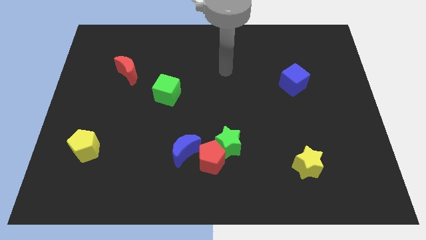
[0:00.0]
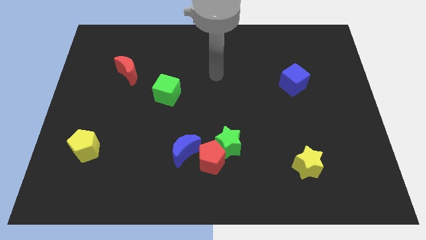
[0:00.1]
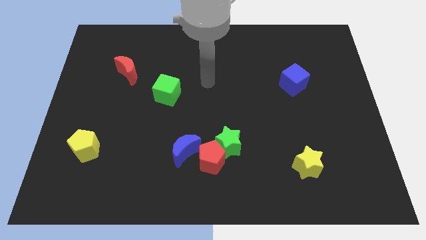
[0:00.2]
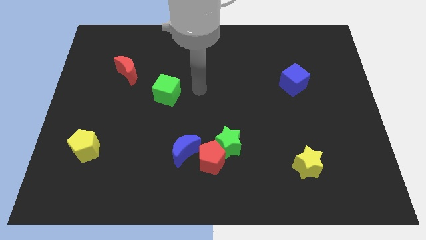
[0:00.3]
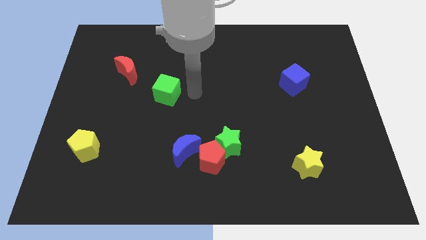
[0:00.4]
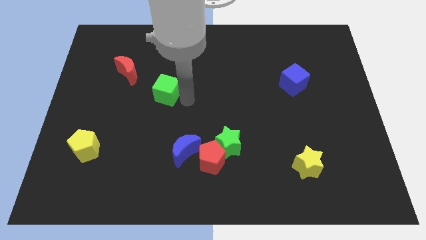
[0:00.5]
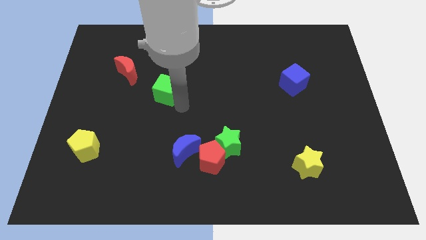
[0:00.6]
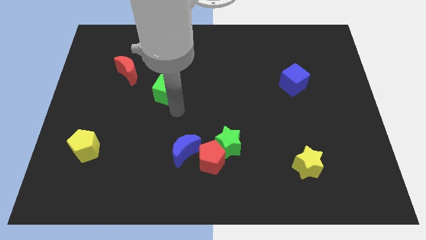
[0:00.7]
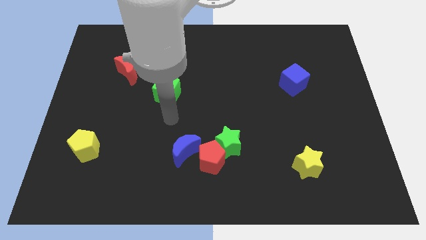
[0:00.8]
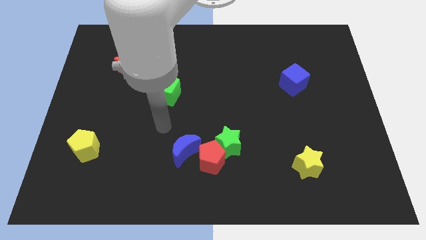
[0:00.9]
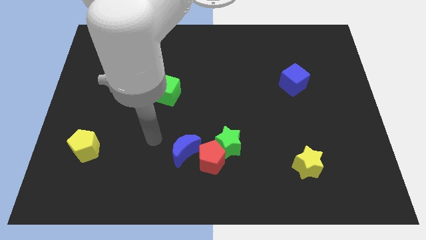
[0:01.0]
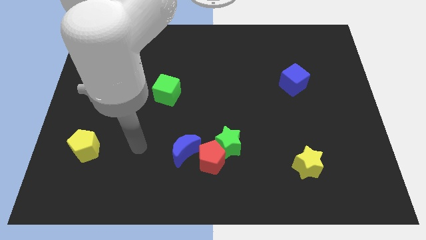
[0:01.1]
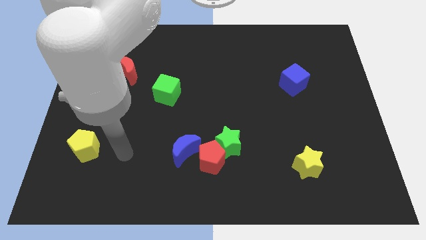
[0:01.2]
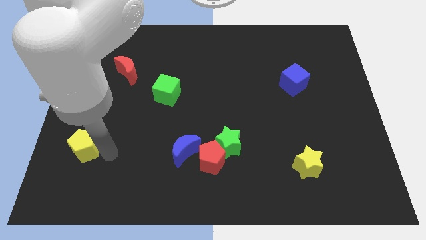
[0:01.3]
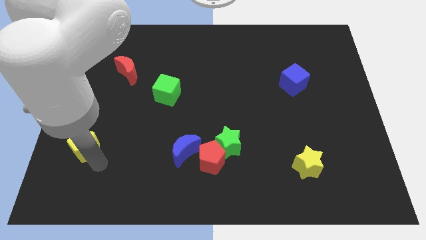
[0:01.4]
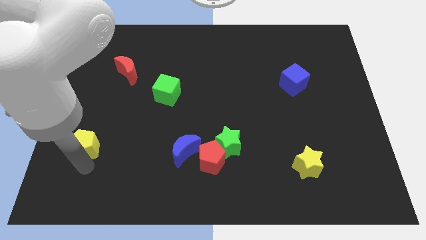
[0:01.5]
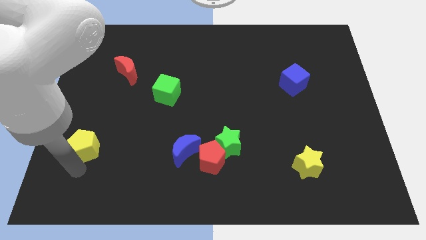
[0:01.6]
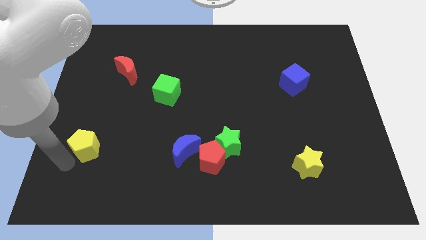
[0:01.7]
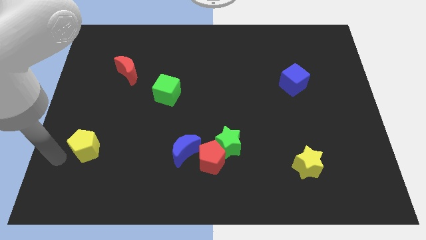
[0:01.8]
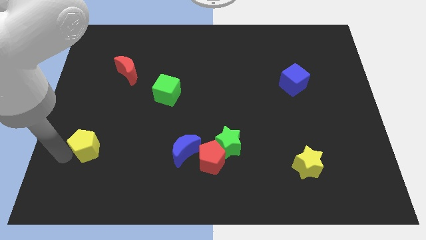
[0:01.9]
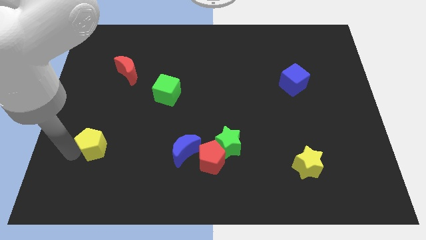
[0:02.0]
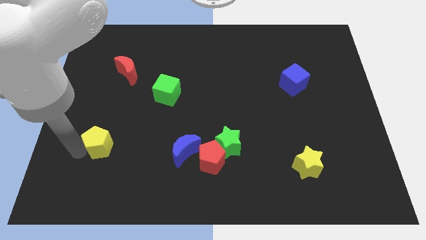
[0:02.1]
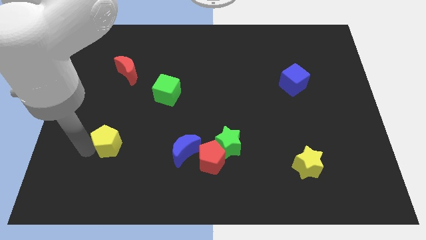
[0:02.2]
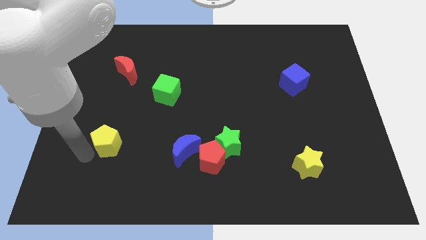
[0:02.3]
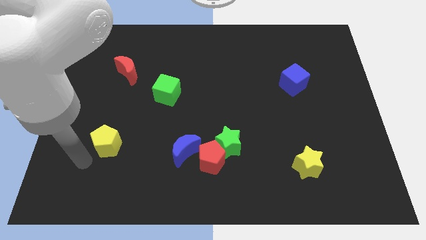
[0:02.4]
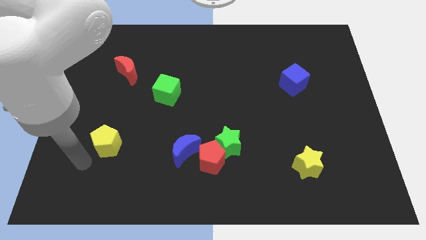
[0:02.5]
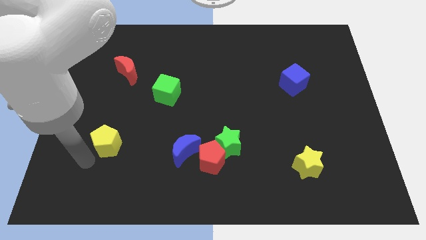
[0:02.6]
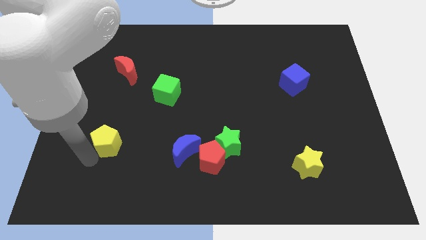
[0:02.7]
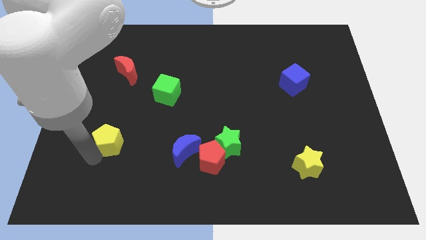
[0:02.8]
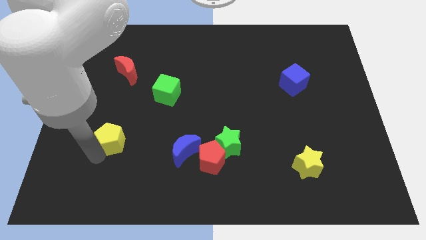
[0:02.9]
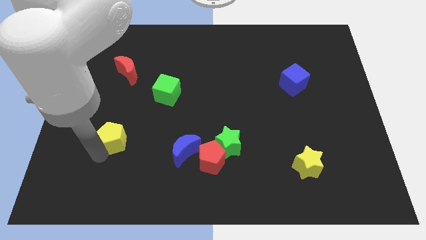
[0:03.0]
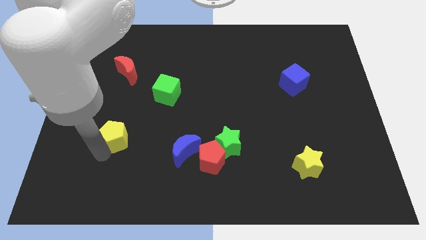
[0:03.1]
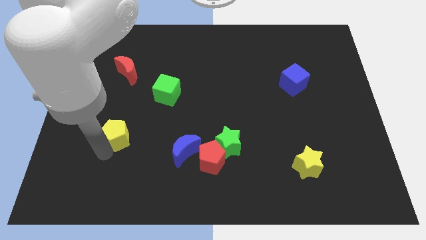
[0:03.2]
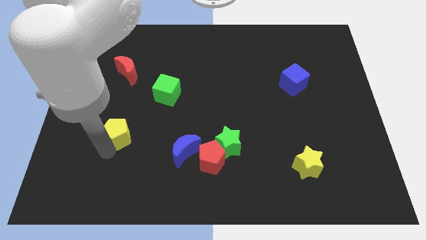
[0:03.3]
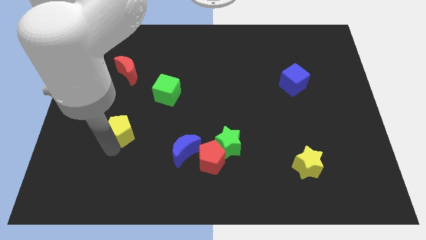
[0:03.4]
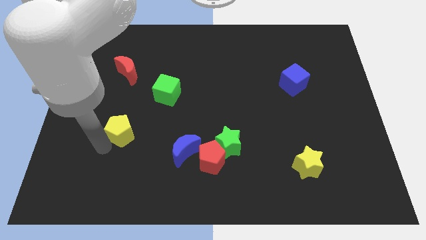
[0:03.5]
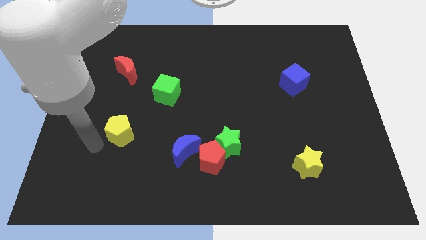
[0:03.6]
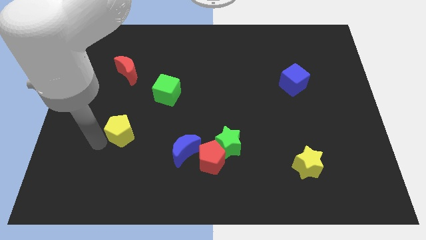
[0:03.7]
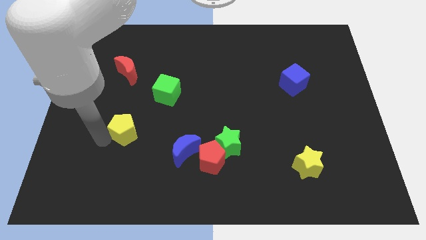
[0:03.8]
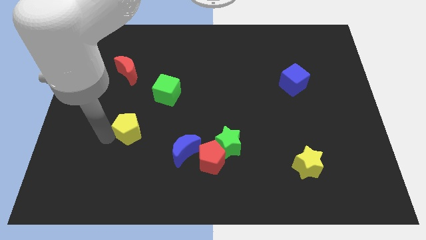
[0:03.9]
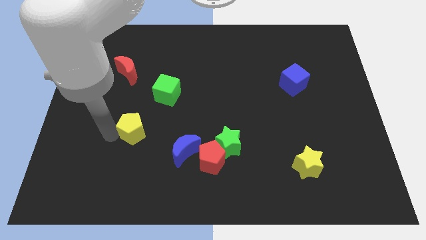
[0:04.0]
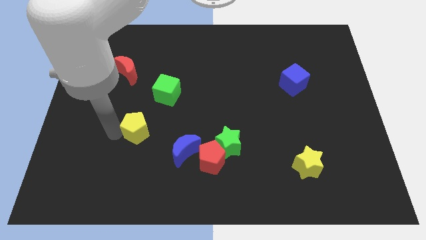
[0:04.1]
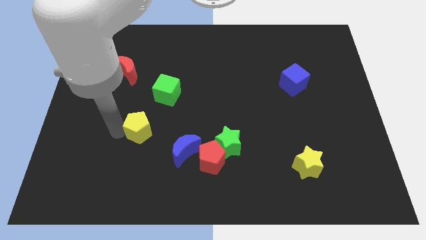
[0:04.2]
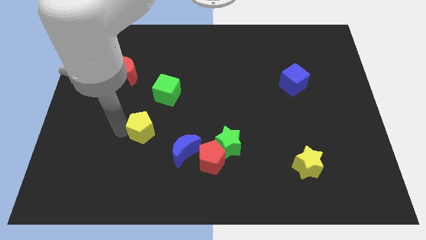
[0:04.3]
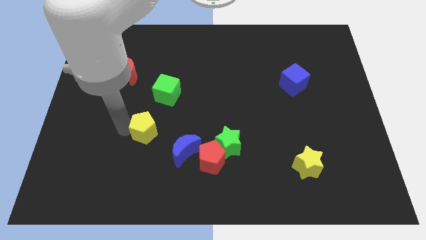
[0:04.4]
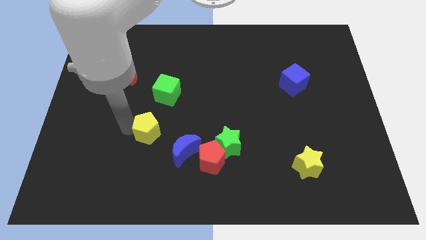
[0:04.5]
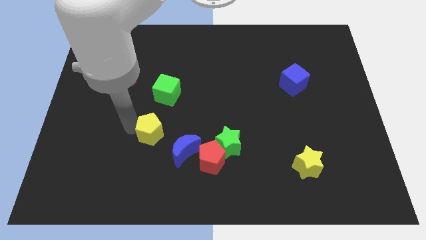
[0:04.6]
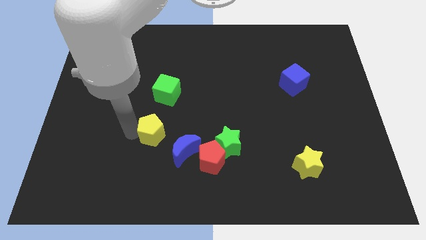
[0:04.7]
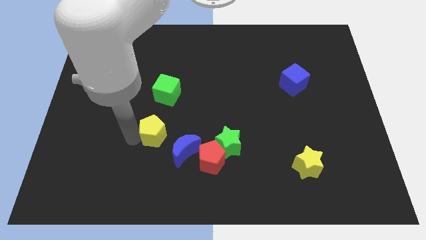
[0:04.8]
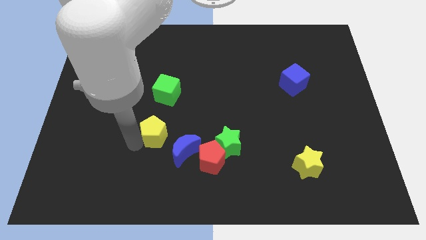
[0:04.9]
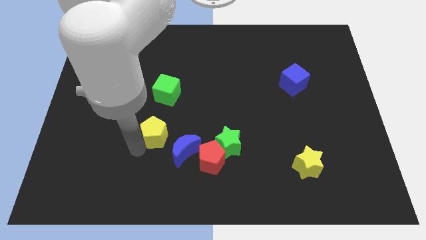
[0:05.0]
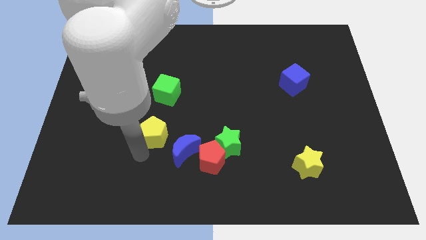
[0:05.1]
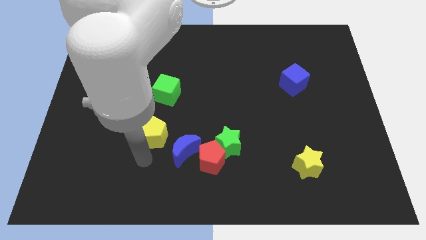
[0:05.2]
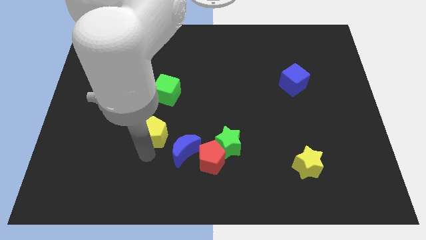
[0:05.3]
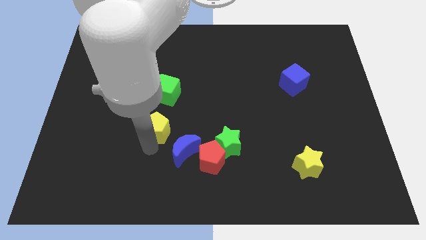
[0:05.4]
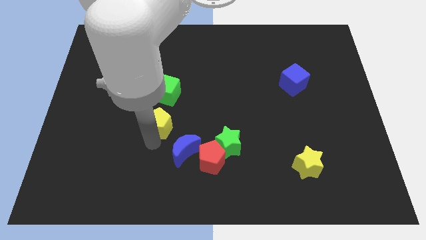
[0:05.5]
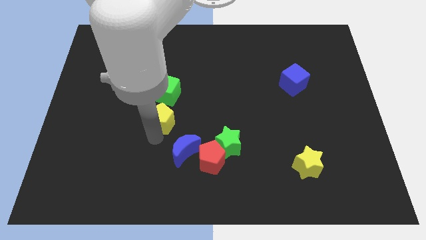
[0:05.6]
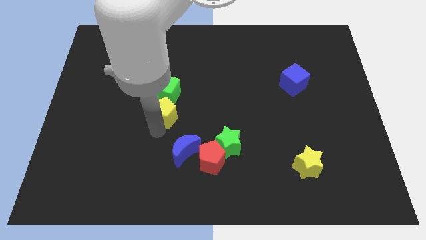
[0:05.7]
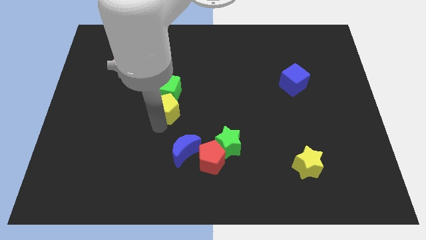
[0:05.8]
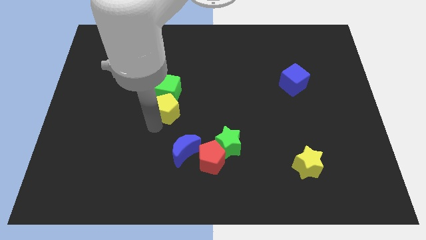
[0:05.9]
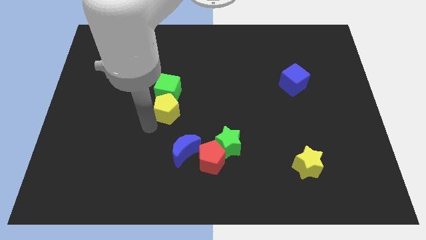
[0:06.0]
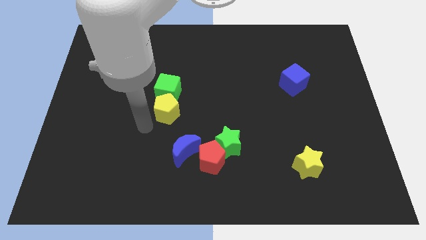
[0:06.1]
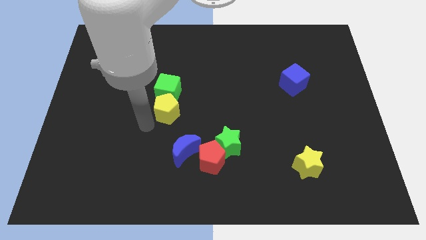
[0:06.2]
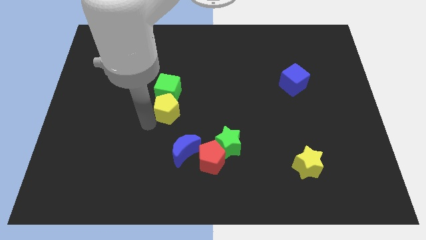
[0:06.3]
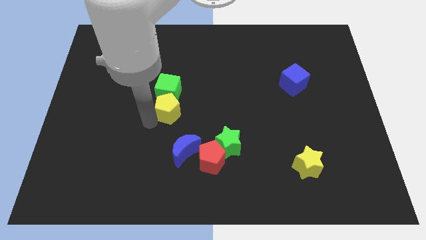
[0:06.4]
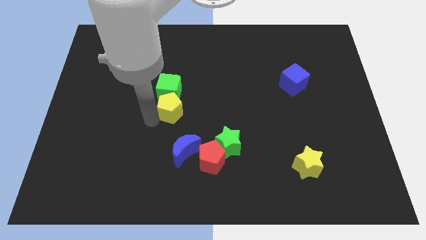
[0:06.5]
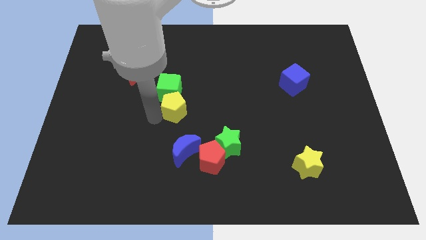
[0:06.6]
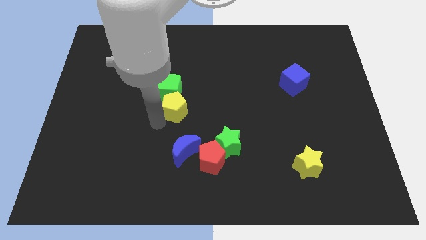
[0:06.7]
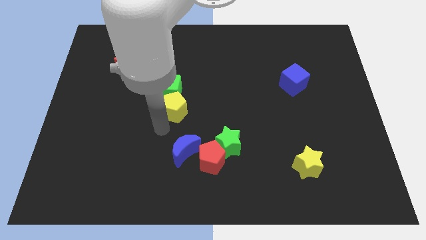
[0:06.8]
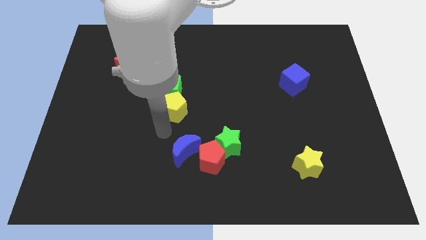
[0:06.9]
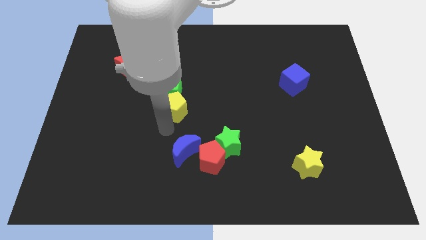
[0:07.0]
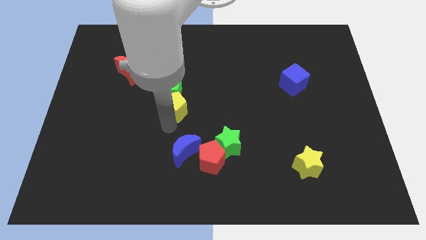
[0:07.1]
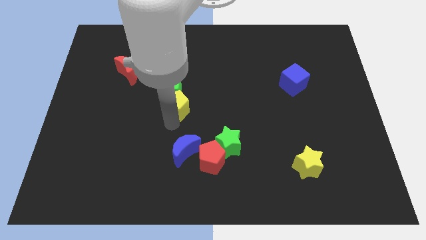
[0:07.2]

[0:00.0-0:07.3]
push the yellow pentagon upwards and right

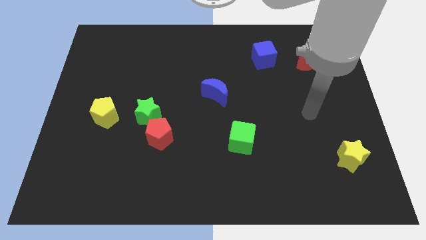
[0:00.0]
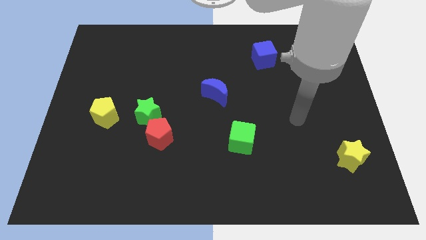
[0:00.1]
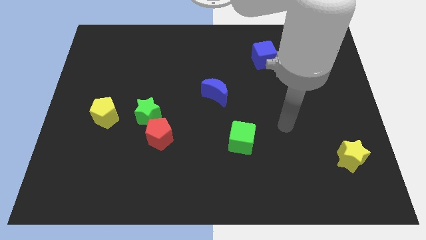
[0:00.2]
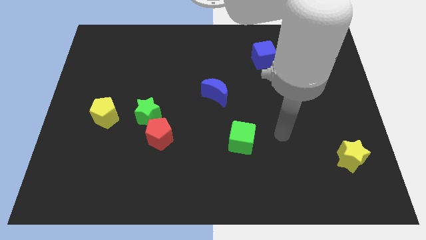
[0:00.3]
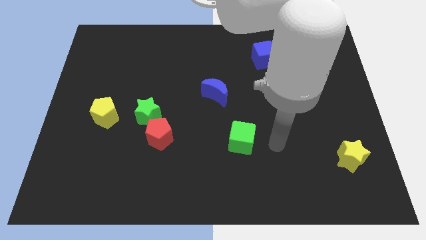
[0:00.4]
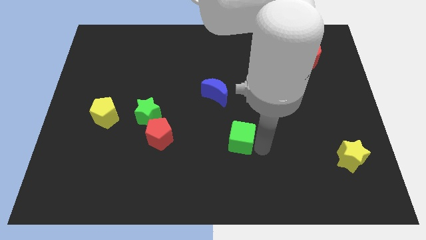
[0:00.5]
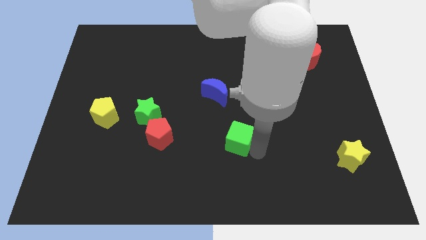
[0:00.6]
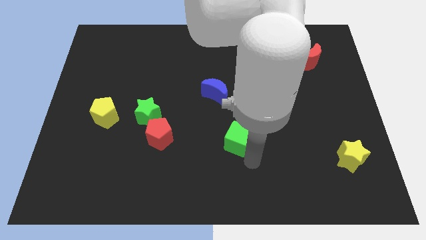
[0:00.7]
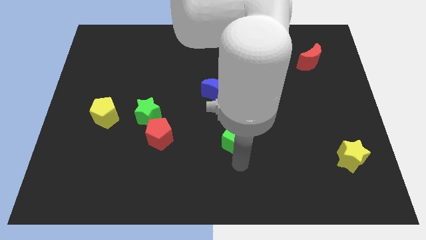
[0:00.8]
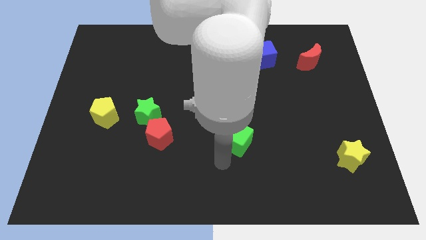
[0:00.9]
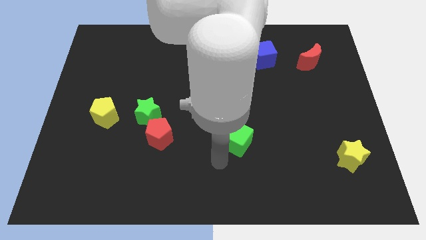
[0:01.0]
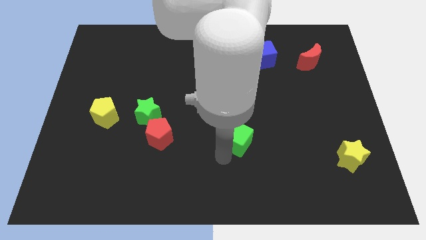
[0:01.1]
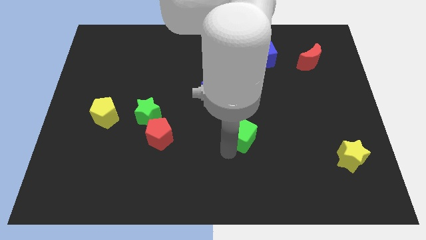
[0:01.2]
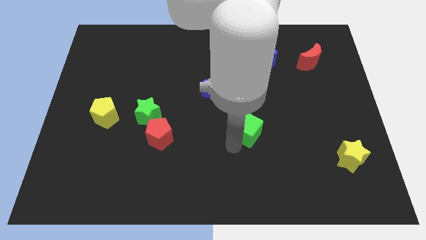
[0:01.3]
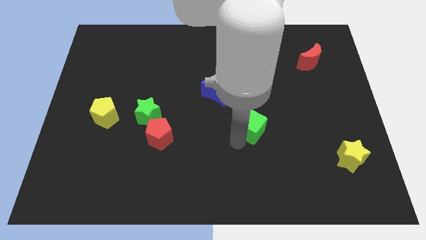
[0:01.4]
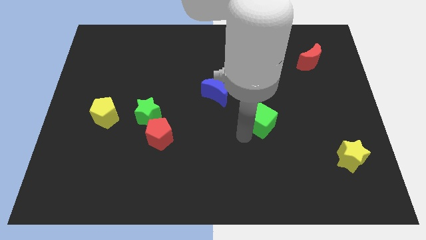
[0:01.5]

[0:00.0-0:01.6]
slide the green cube slightly up and right
